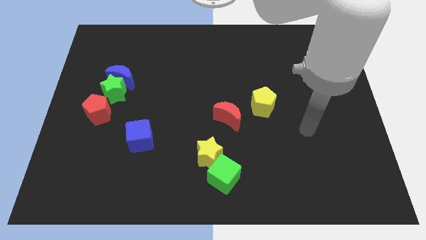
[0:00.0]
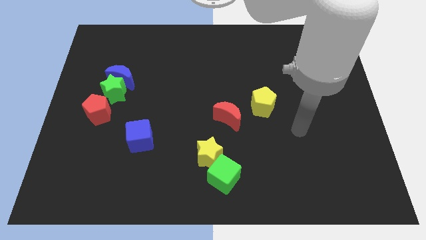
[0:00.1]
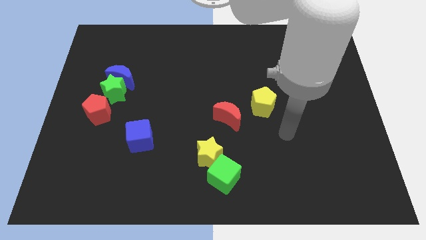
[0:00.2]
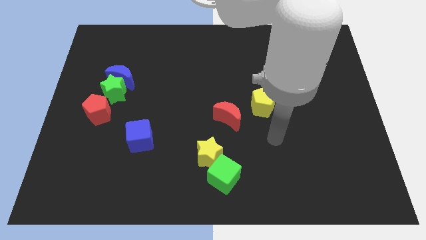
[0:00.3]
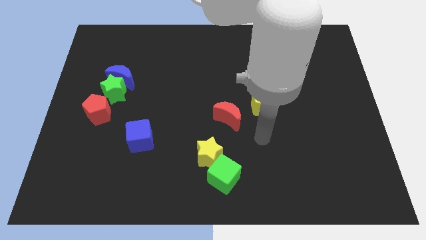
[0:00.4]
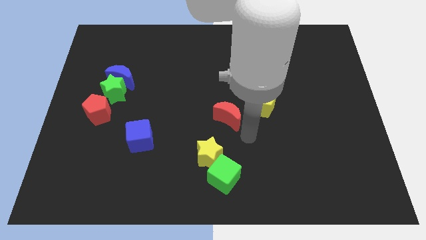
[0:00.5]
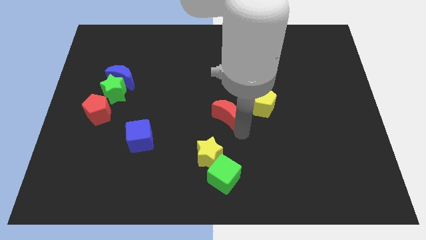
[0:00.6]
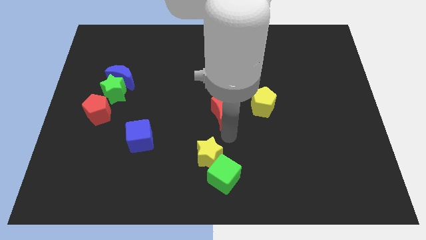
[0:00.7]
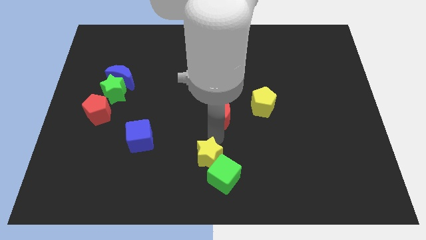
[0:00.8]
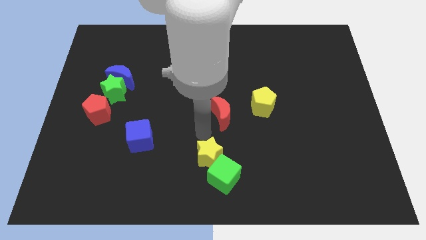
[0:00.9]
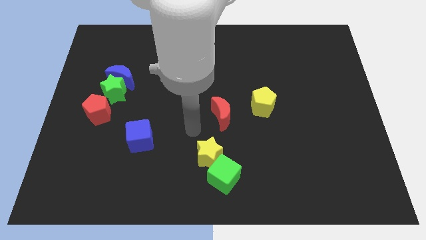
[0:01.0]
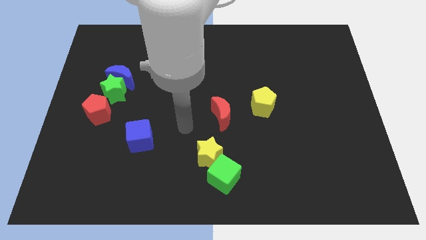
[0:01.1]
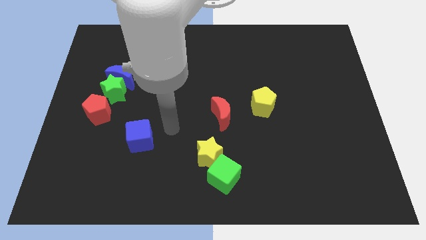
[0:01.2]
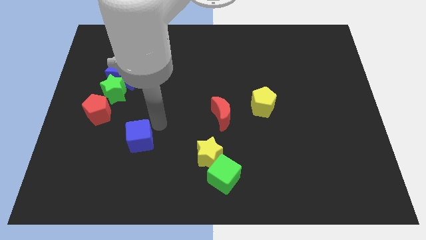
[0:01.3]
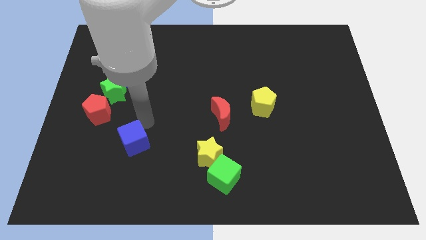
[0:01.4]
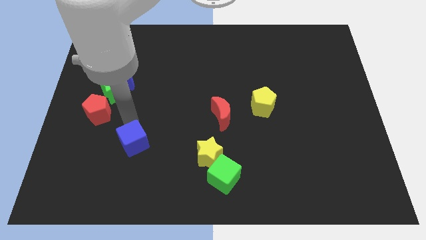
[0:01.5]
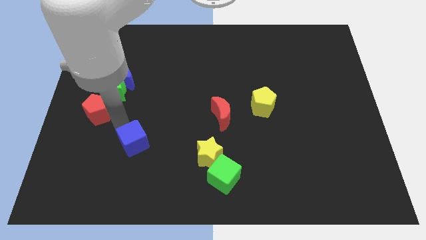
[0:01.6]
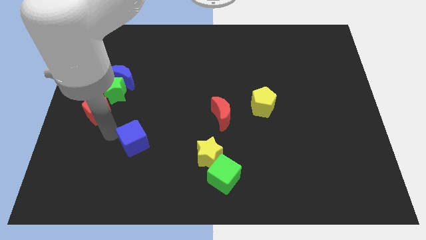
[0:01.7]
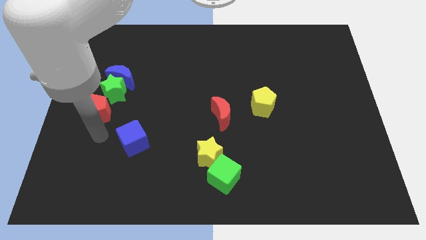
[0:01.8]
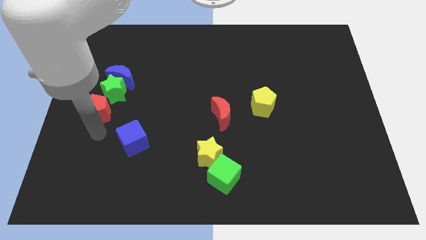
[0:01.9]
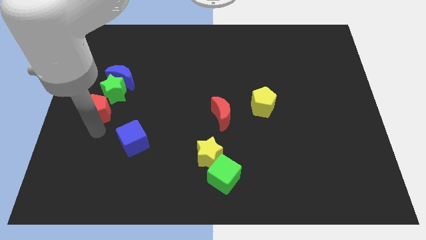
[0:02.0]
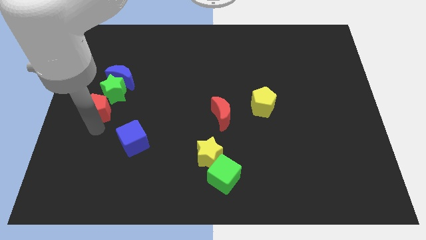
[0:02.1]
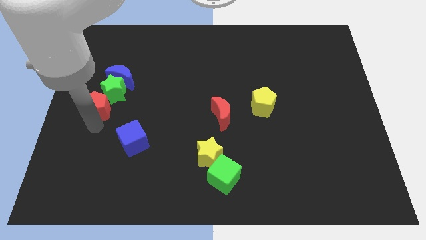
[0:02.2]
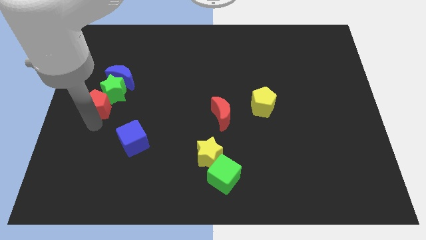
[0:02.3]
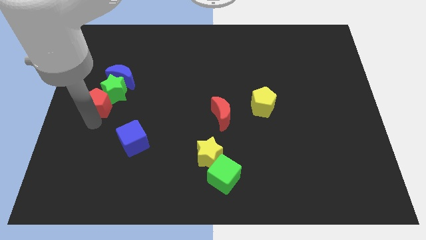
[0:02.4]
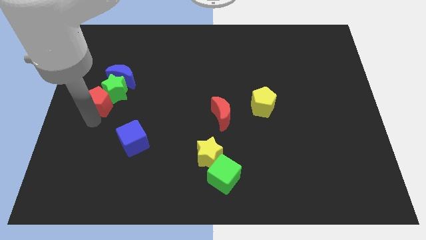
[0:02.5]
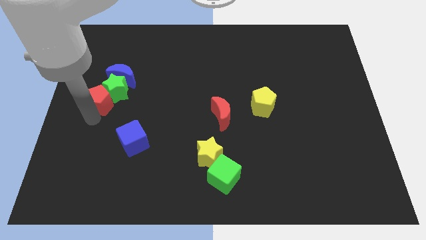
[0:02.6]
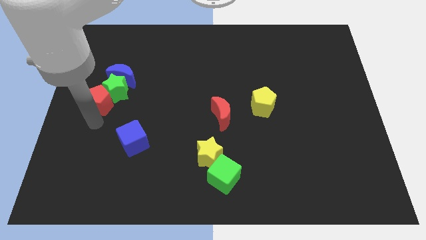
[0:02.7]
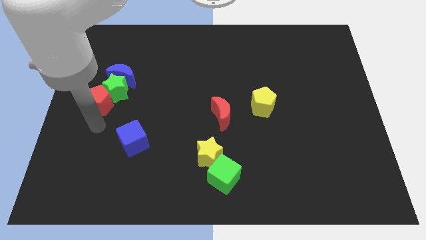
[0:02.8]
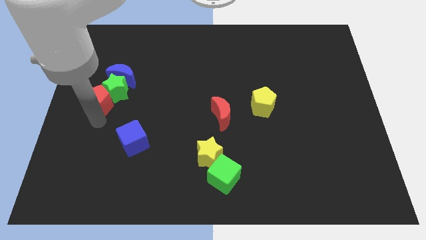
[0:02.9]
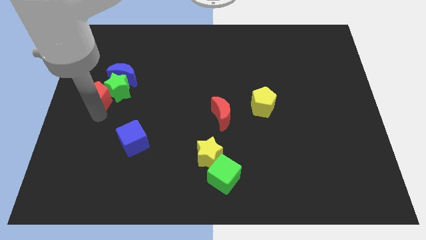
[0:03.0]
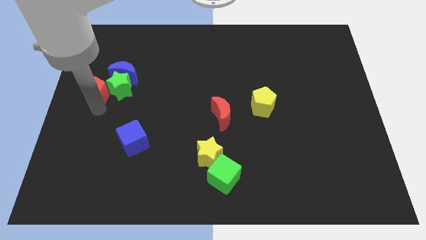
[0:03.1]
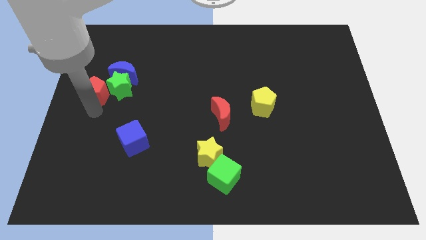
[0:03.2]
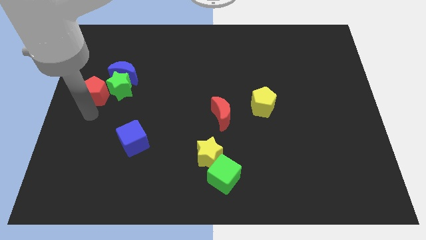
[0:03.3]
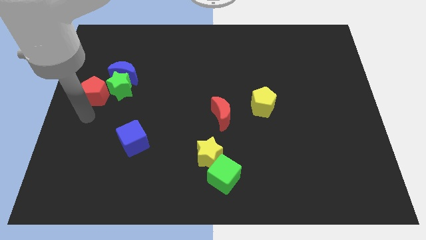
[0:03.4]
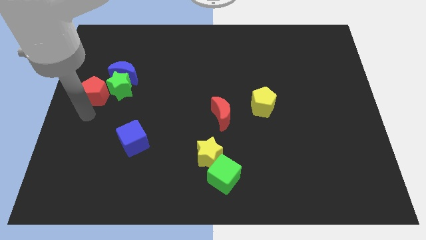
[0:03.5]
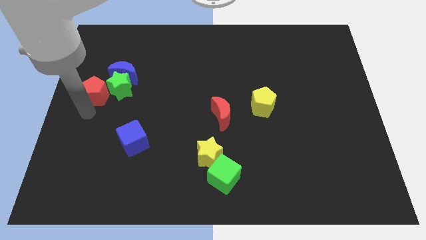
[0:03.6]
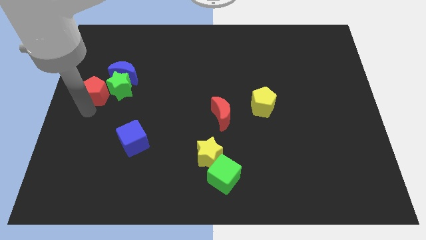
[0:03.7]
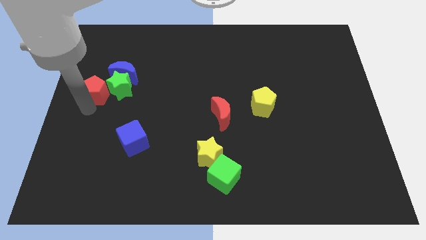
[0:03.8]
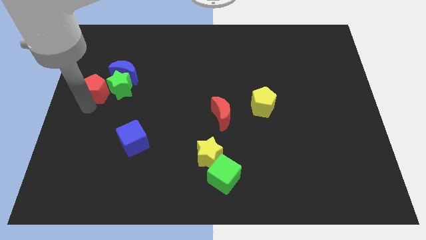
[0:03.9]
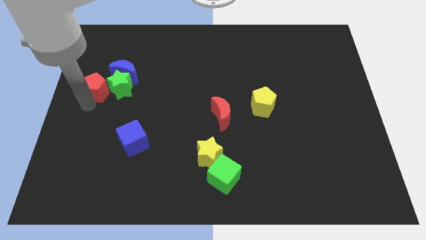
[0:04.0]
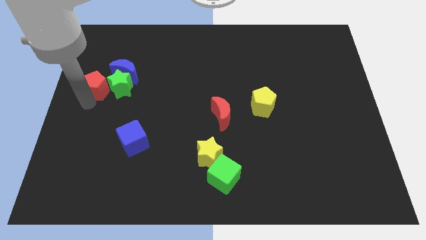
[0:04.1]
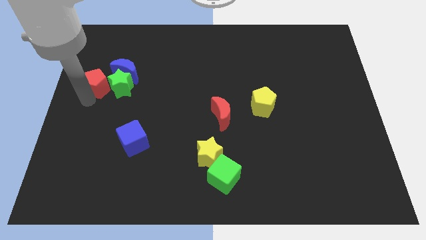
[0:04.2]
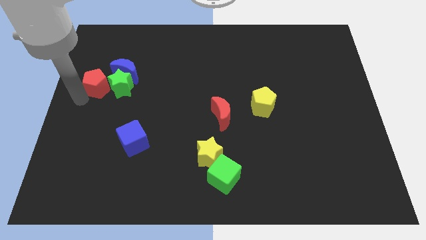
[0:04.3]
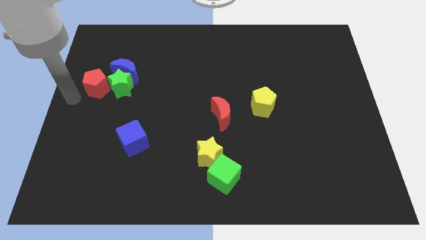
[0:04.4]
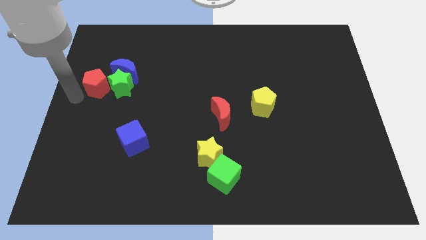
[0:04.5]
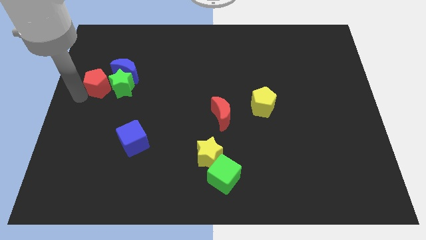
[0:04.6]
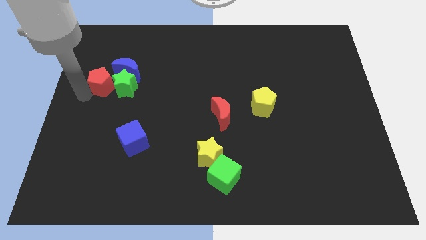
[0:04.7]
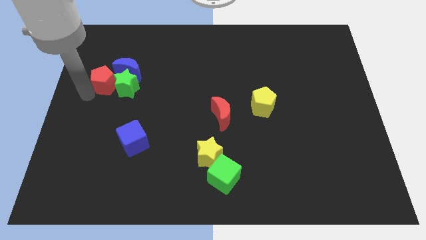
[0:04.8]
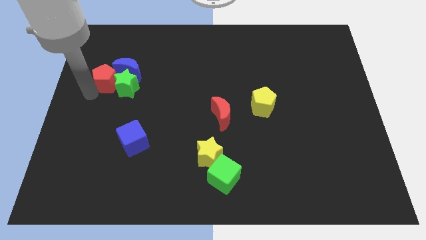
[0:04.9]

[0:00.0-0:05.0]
put the red pentagon to the blue moon

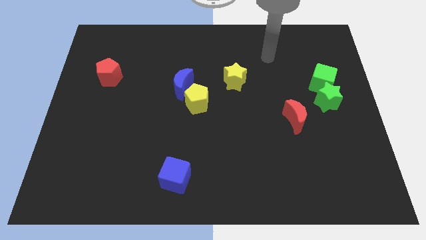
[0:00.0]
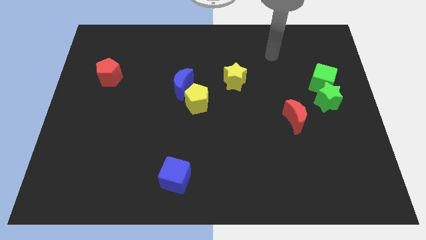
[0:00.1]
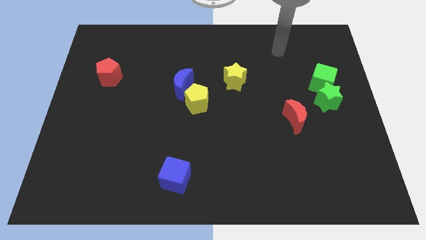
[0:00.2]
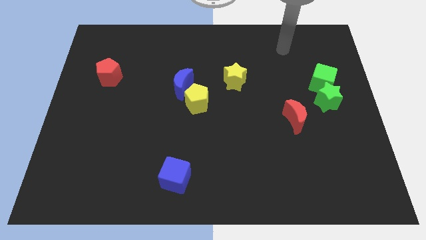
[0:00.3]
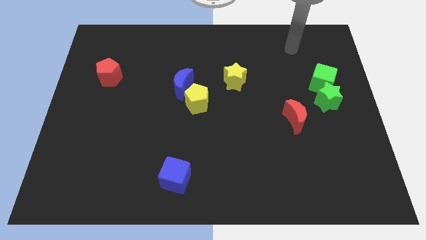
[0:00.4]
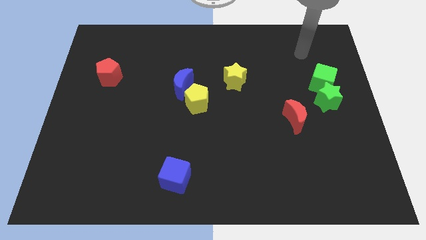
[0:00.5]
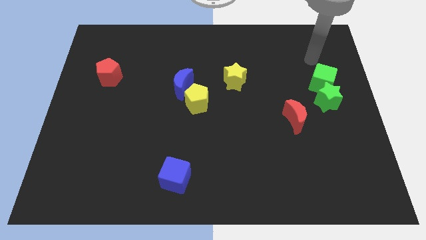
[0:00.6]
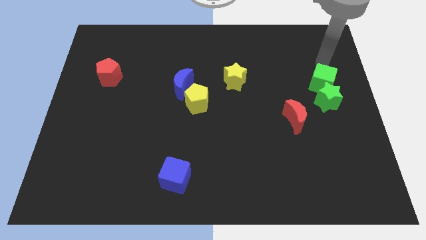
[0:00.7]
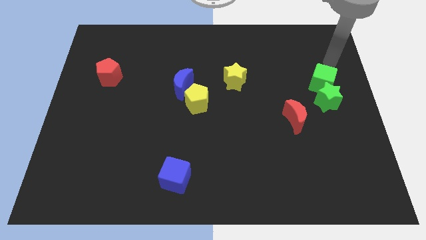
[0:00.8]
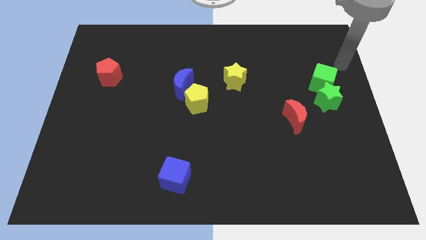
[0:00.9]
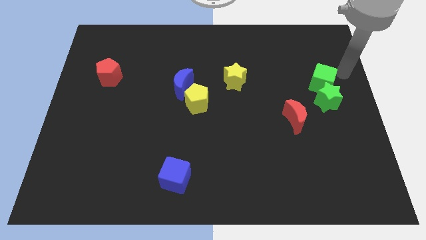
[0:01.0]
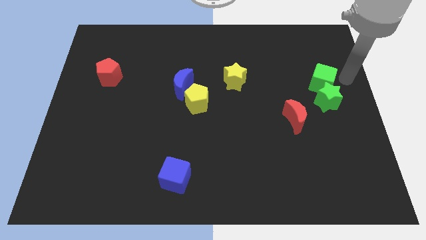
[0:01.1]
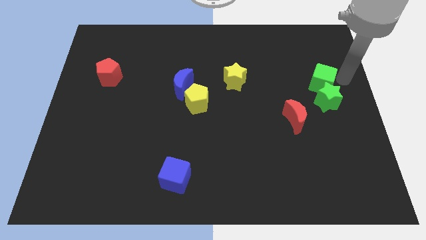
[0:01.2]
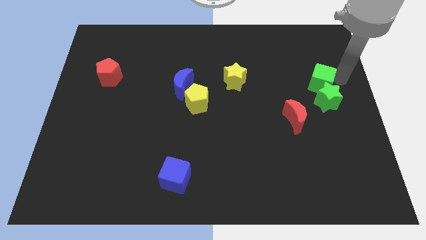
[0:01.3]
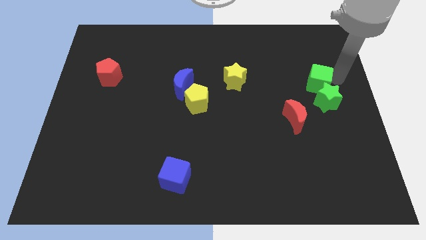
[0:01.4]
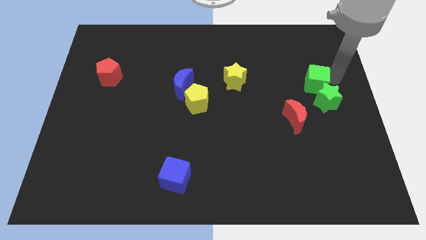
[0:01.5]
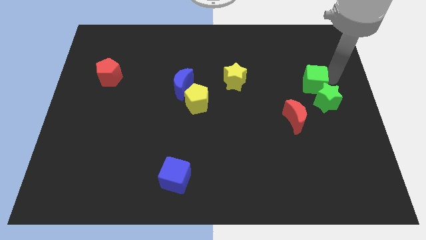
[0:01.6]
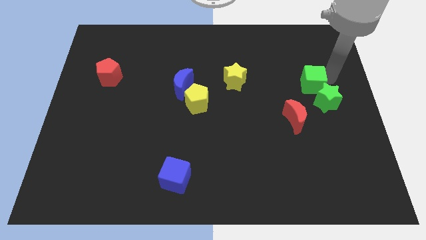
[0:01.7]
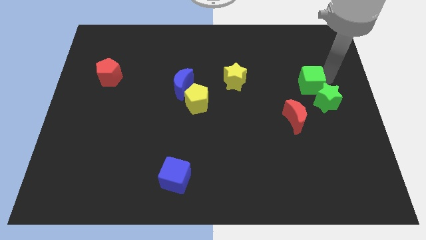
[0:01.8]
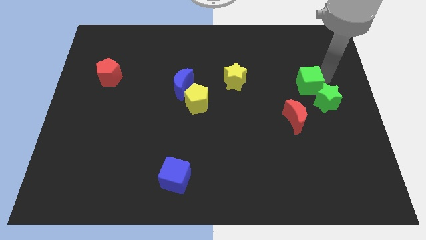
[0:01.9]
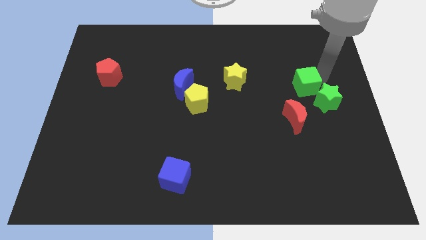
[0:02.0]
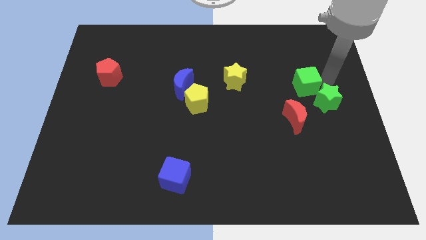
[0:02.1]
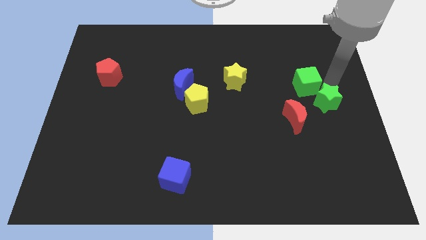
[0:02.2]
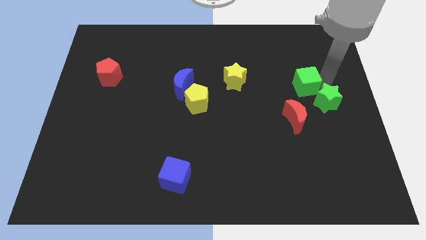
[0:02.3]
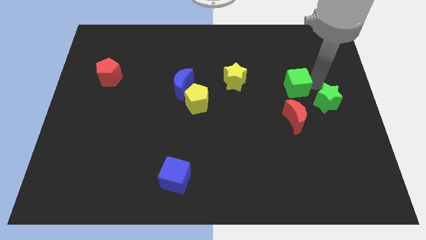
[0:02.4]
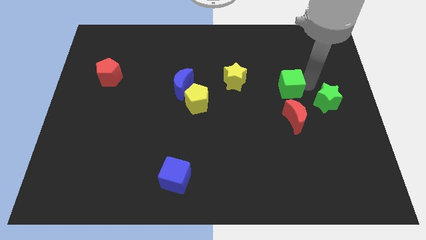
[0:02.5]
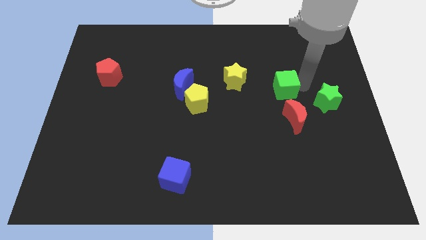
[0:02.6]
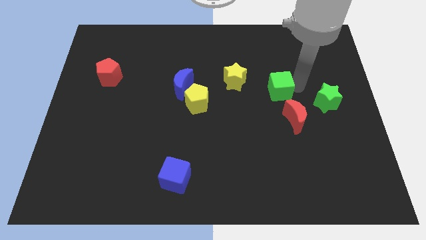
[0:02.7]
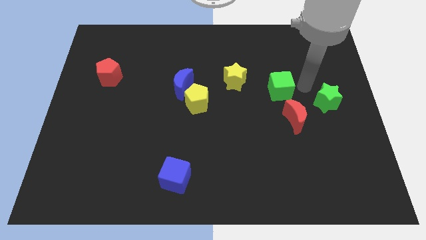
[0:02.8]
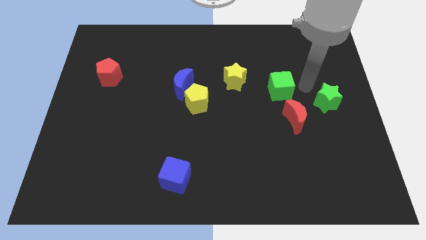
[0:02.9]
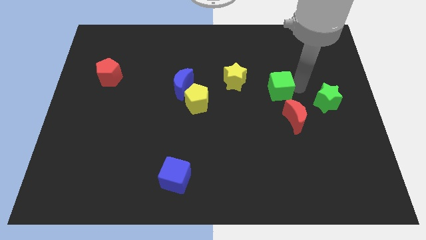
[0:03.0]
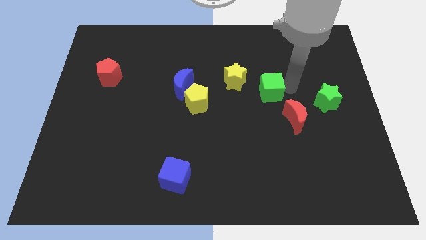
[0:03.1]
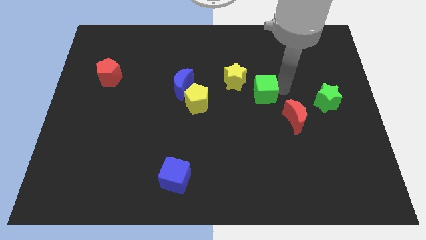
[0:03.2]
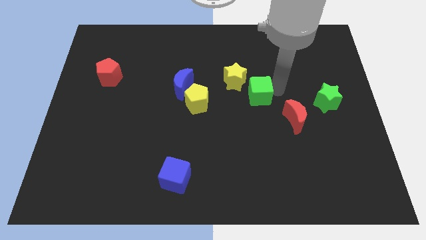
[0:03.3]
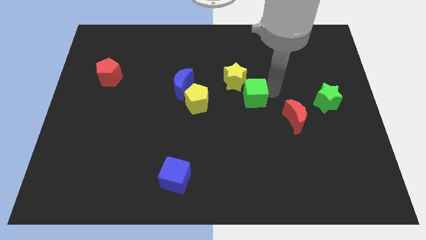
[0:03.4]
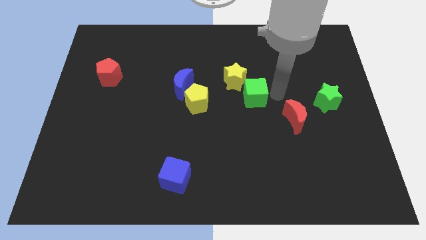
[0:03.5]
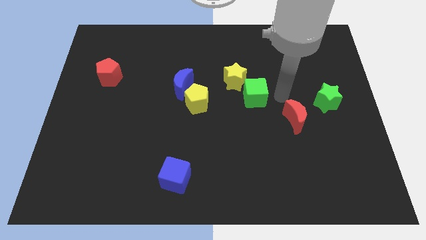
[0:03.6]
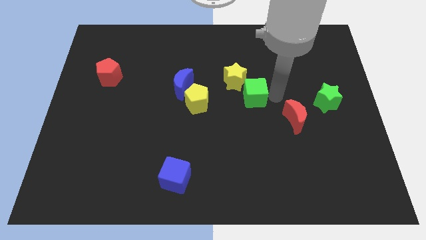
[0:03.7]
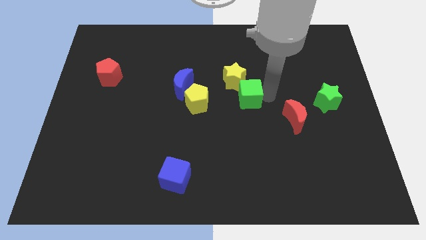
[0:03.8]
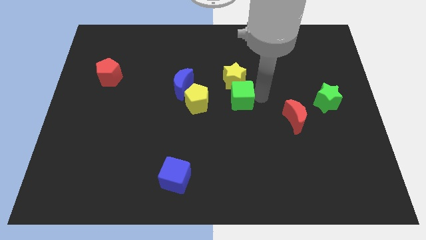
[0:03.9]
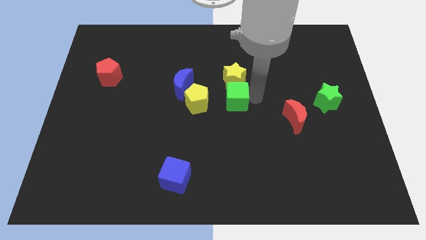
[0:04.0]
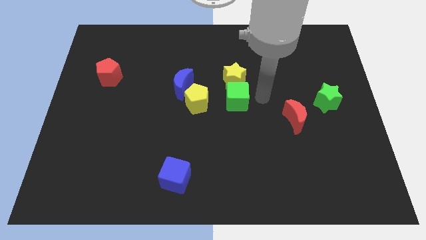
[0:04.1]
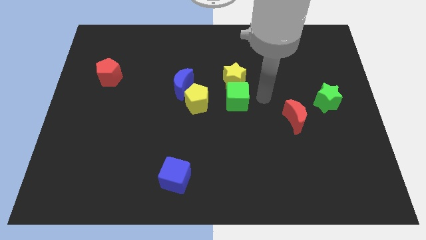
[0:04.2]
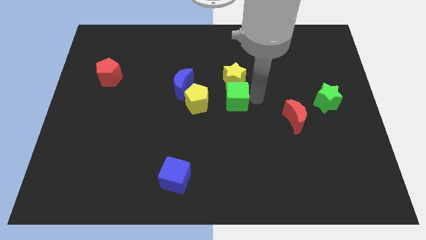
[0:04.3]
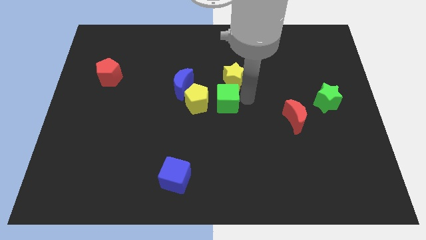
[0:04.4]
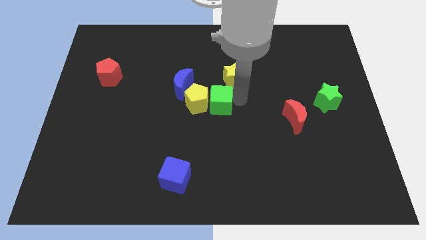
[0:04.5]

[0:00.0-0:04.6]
move the green cube next to the yellow pentagon
